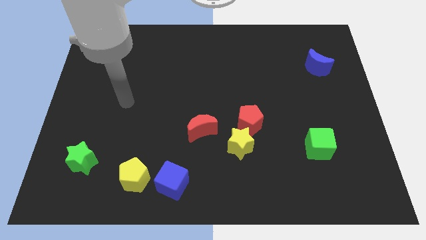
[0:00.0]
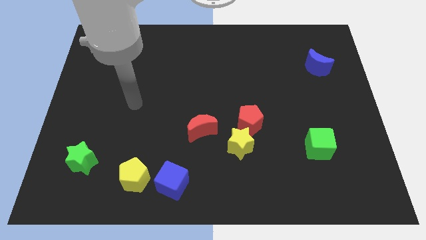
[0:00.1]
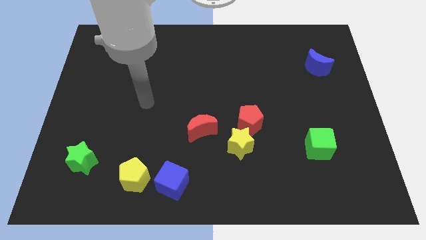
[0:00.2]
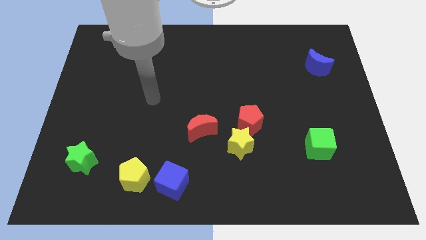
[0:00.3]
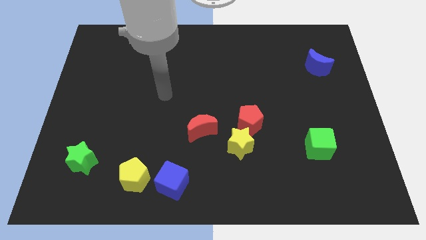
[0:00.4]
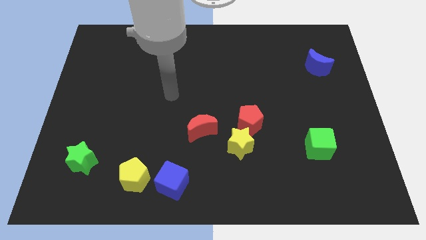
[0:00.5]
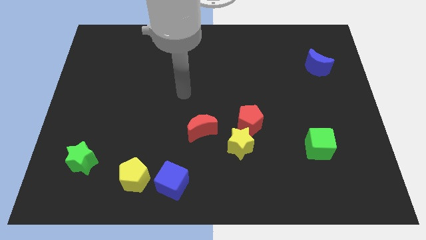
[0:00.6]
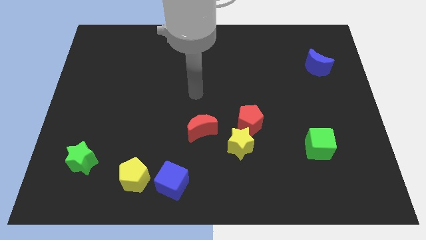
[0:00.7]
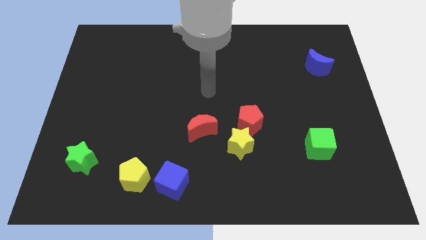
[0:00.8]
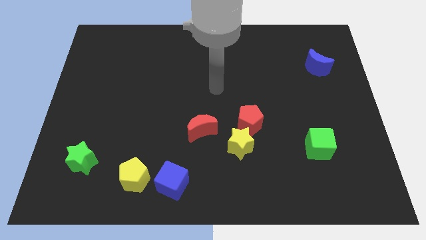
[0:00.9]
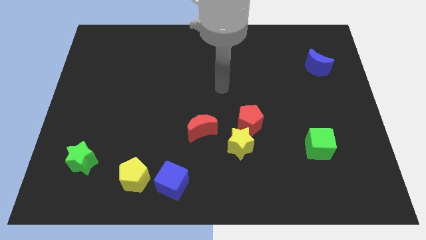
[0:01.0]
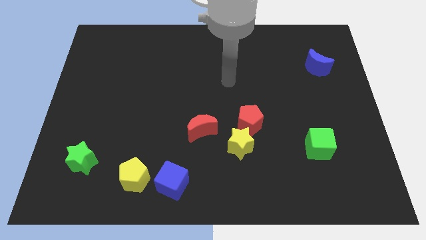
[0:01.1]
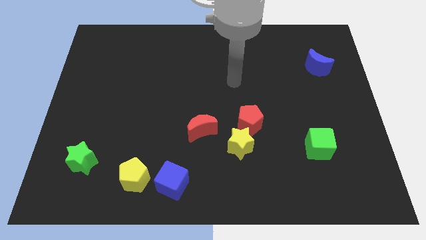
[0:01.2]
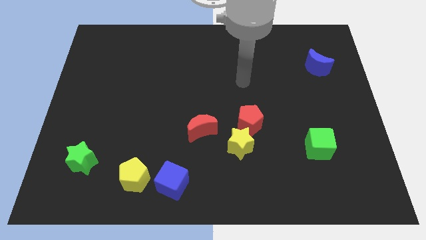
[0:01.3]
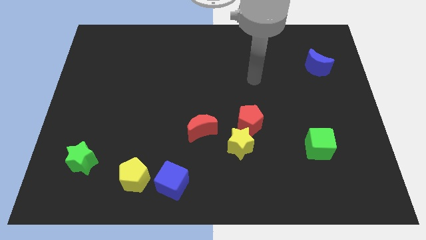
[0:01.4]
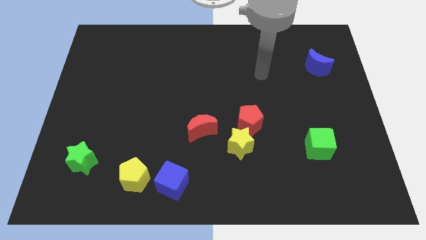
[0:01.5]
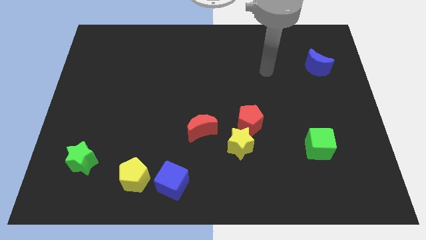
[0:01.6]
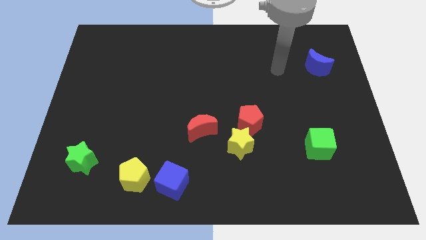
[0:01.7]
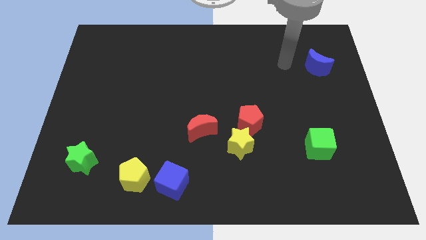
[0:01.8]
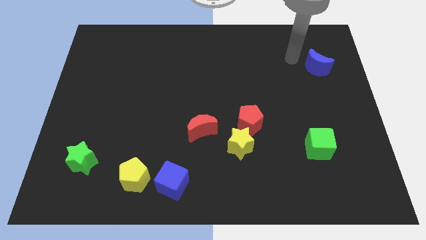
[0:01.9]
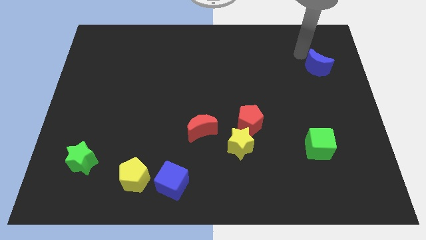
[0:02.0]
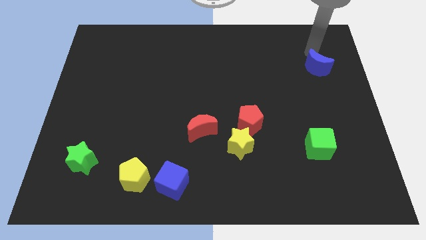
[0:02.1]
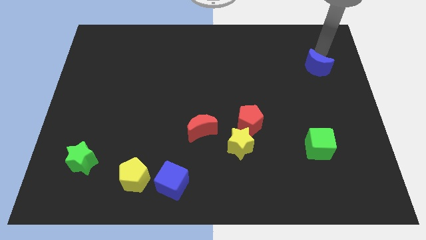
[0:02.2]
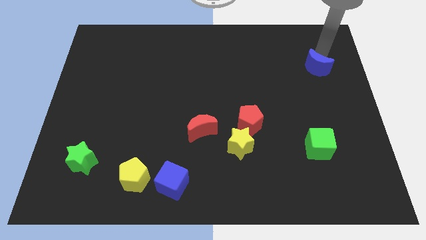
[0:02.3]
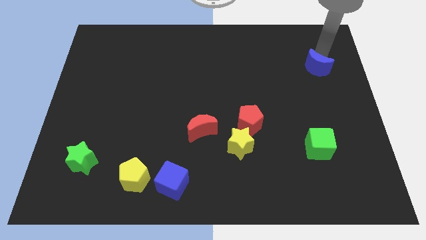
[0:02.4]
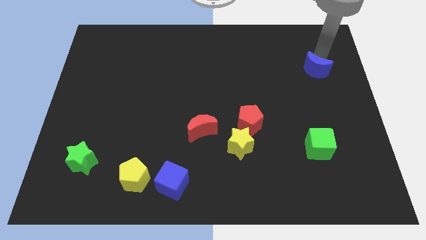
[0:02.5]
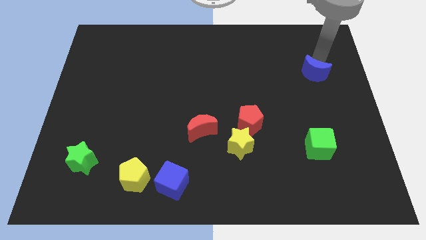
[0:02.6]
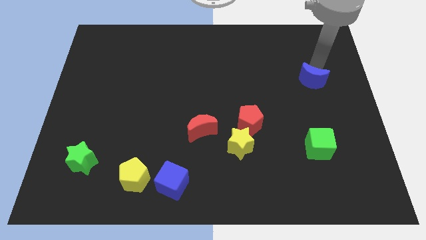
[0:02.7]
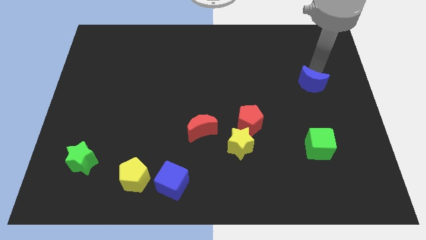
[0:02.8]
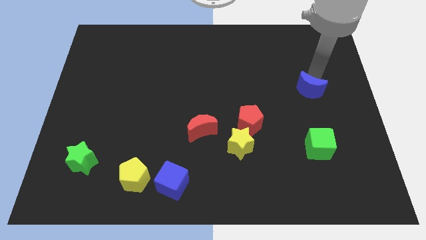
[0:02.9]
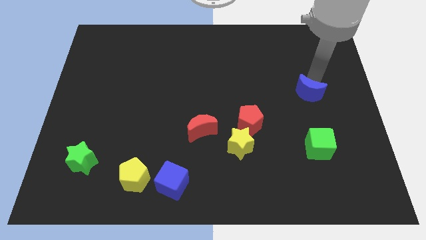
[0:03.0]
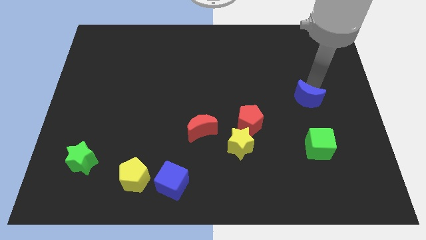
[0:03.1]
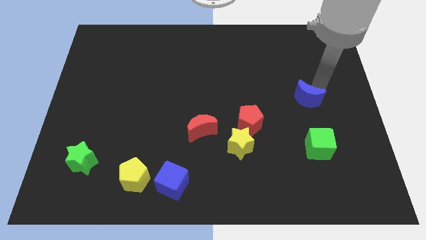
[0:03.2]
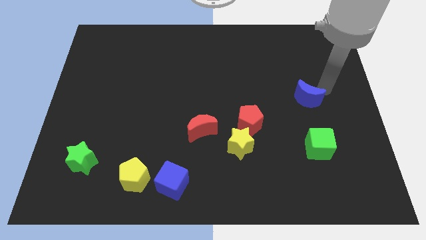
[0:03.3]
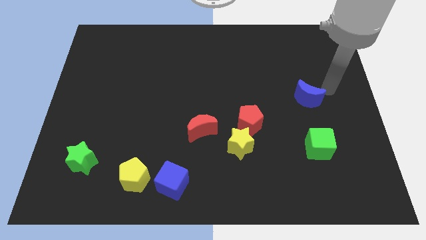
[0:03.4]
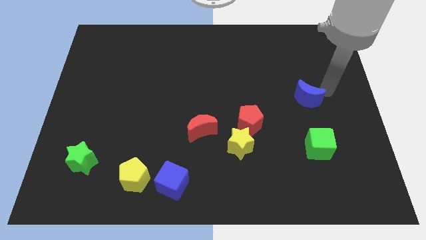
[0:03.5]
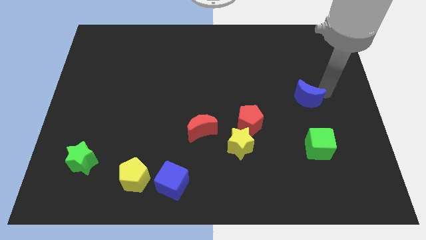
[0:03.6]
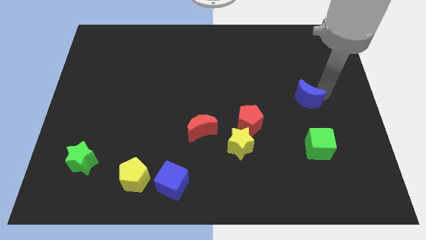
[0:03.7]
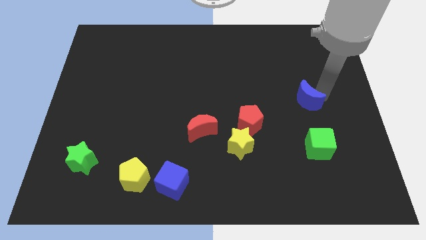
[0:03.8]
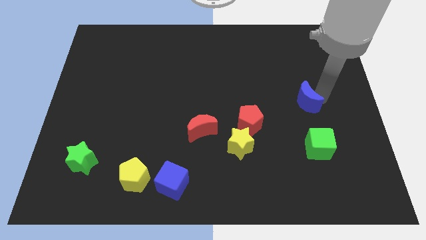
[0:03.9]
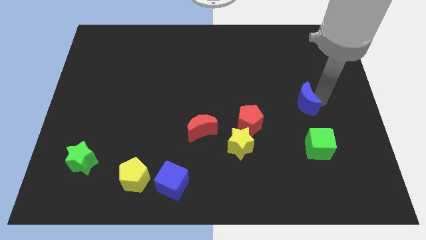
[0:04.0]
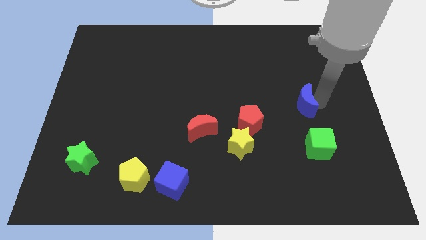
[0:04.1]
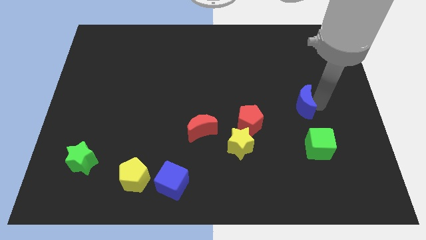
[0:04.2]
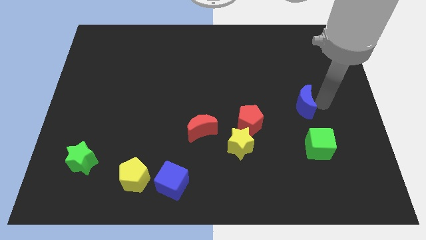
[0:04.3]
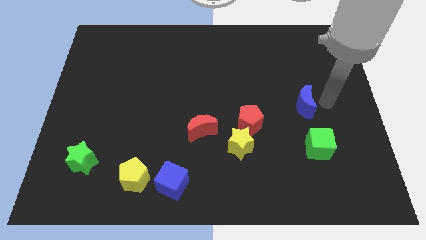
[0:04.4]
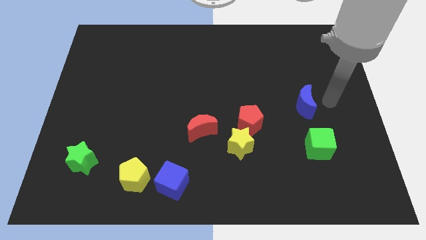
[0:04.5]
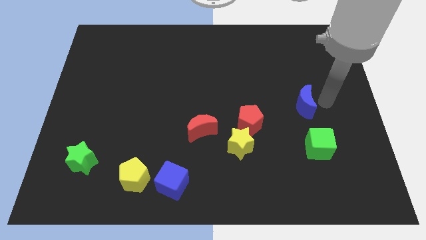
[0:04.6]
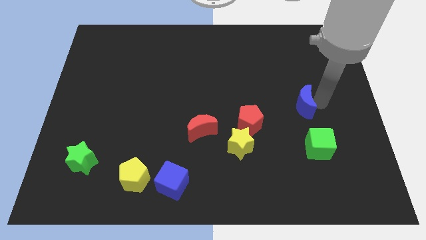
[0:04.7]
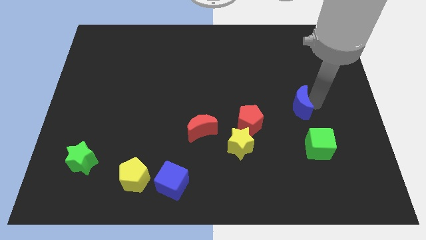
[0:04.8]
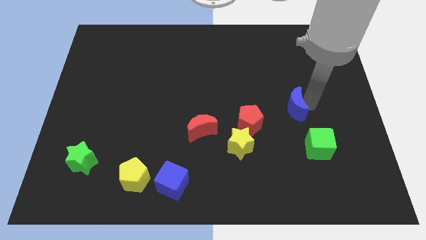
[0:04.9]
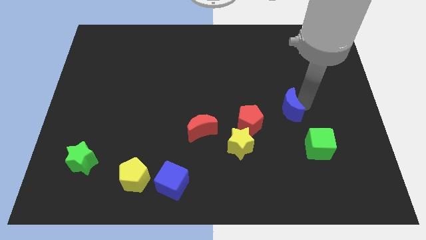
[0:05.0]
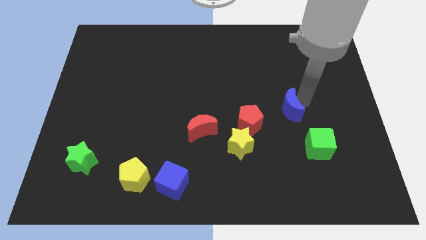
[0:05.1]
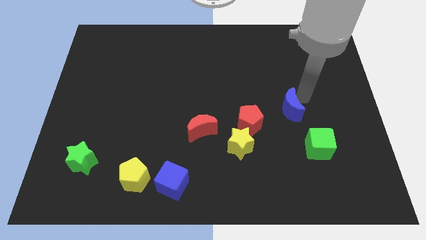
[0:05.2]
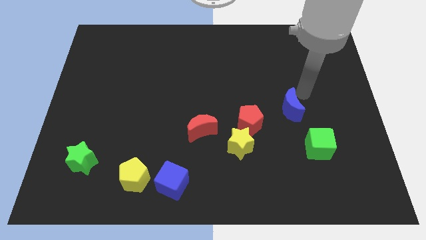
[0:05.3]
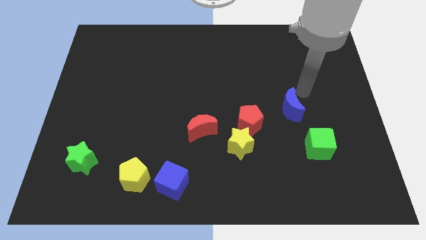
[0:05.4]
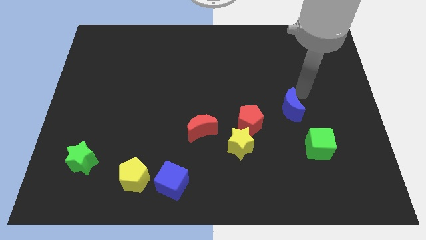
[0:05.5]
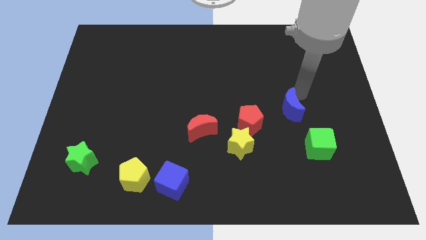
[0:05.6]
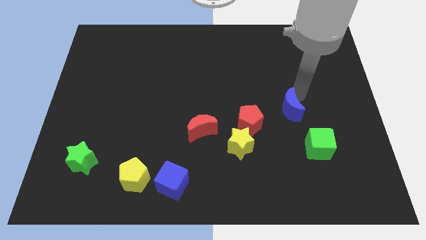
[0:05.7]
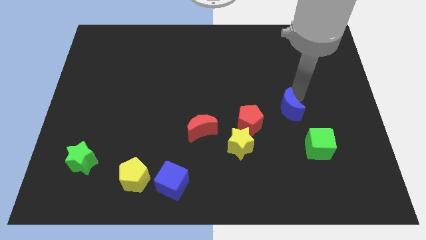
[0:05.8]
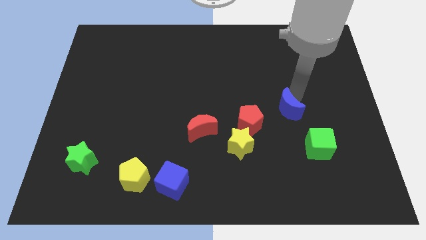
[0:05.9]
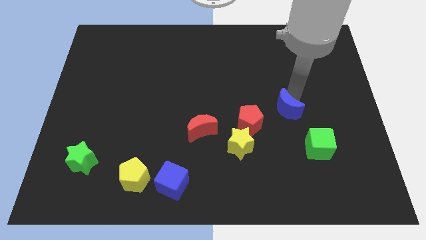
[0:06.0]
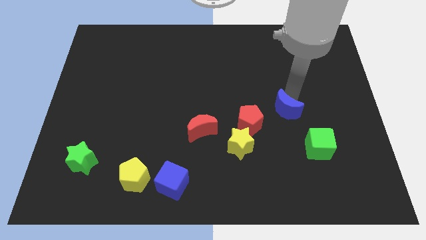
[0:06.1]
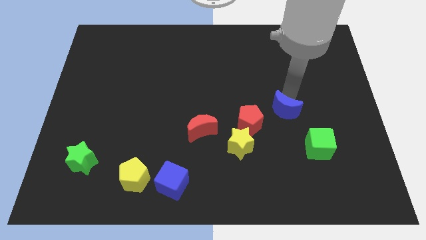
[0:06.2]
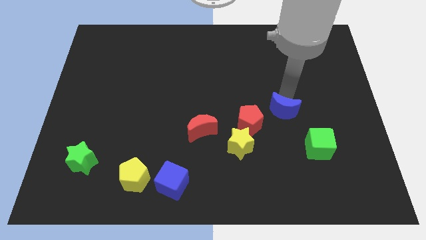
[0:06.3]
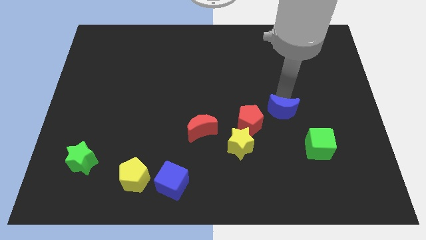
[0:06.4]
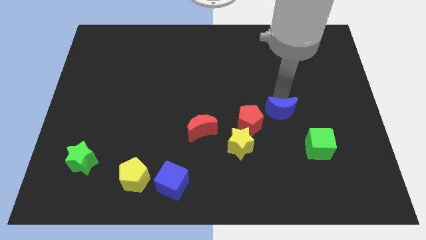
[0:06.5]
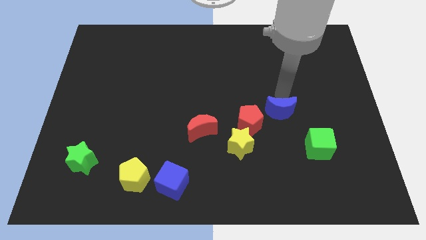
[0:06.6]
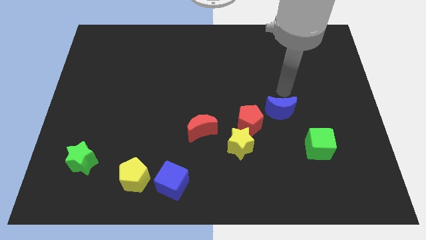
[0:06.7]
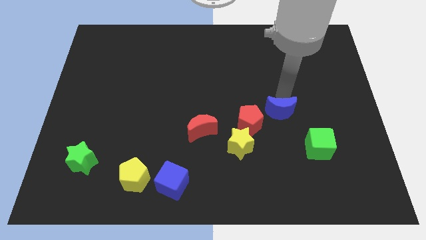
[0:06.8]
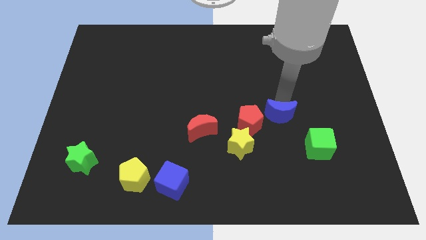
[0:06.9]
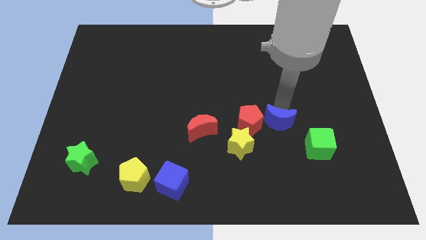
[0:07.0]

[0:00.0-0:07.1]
slide the blue moon to the bottom right of the red pentagon

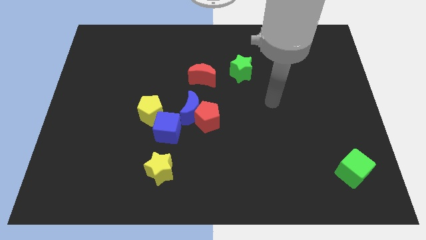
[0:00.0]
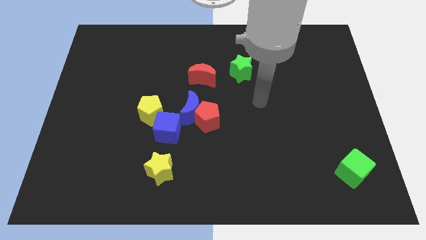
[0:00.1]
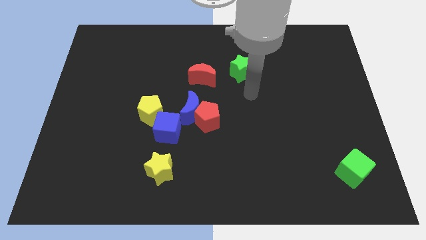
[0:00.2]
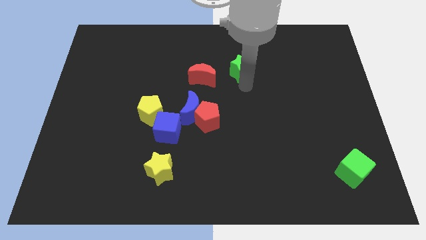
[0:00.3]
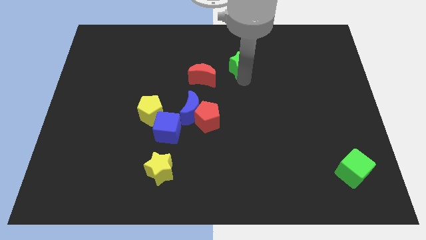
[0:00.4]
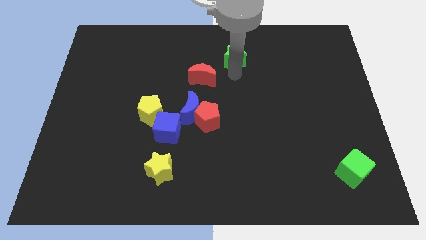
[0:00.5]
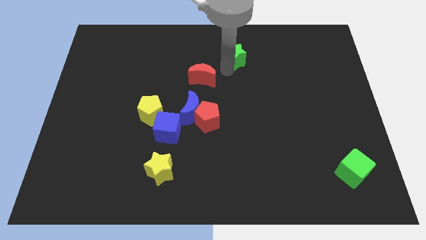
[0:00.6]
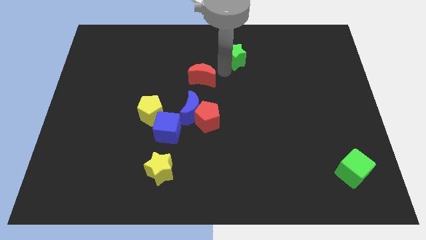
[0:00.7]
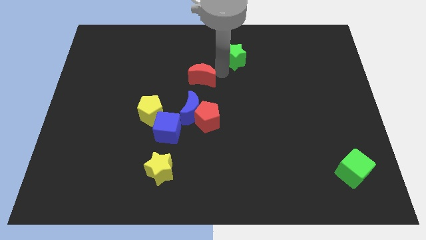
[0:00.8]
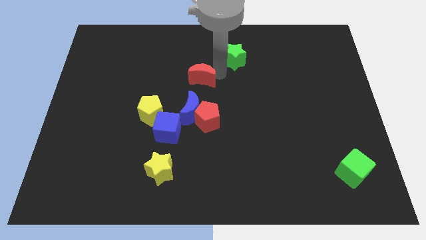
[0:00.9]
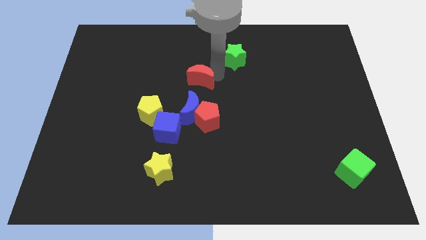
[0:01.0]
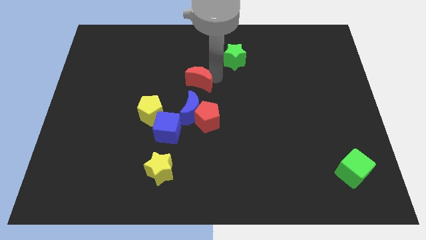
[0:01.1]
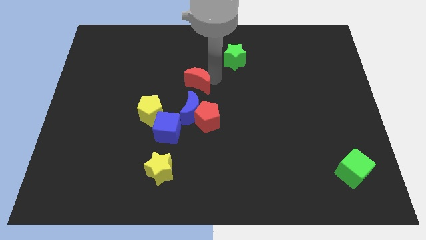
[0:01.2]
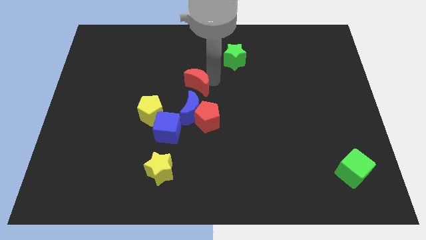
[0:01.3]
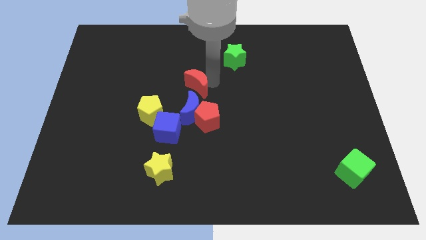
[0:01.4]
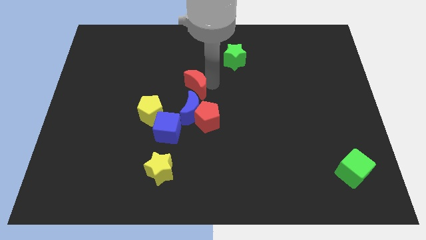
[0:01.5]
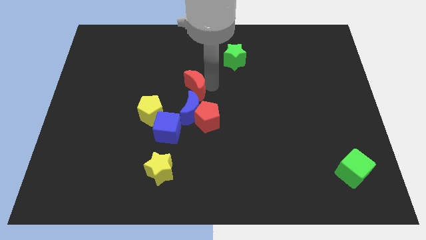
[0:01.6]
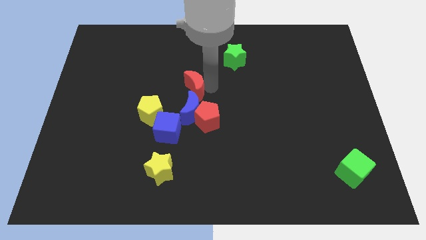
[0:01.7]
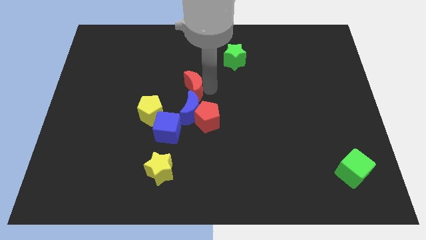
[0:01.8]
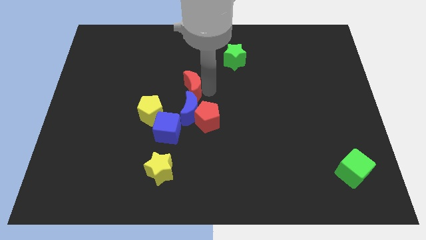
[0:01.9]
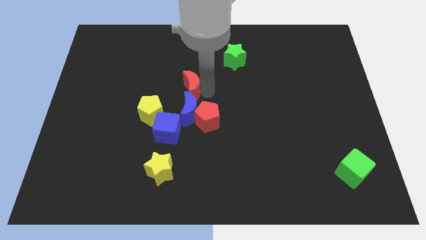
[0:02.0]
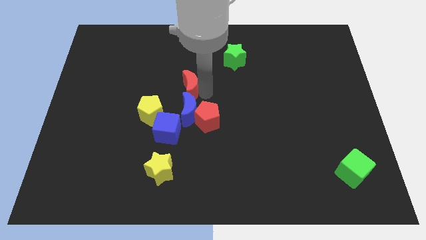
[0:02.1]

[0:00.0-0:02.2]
move the red moon above the blue cube
